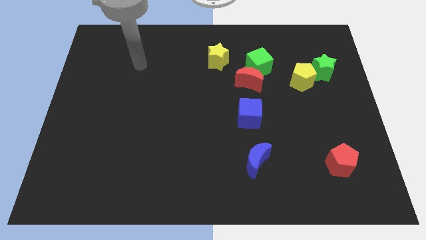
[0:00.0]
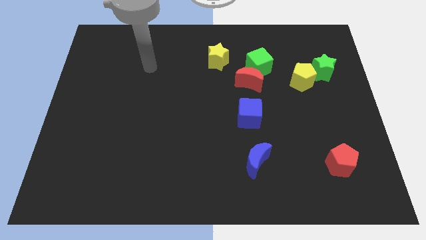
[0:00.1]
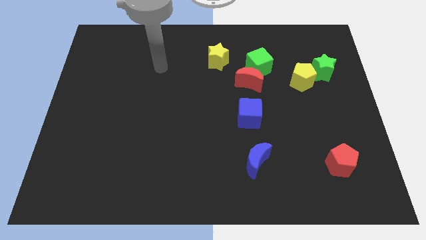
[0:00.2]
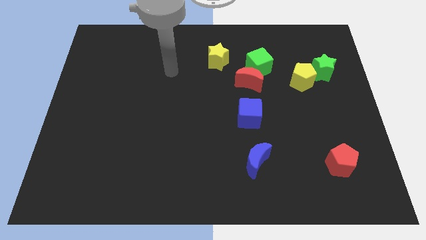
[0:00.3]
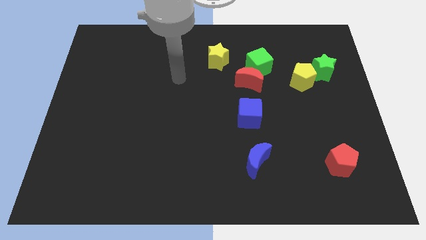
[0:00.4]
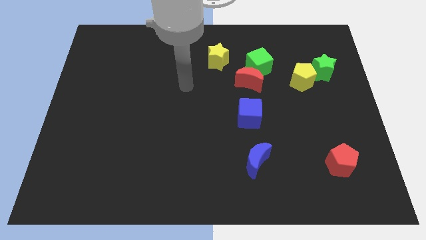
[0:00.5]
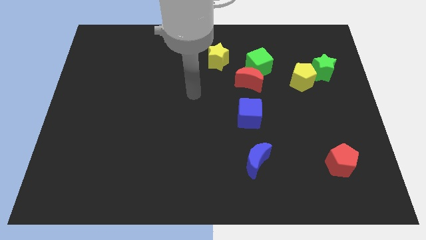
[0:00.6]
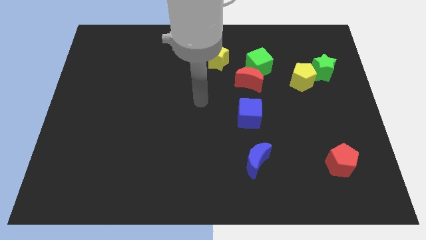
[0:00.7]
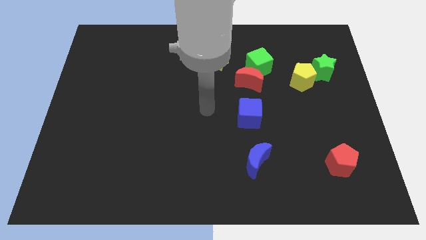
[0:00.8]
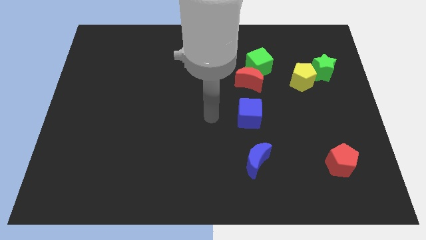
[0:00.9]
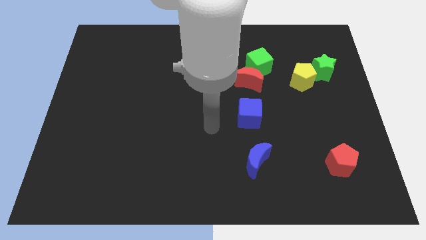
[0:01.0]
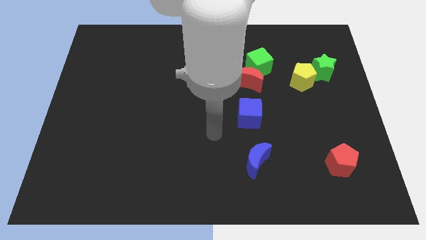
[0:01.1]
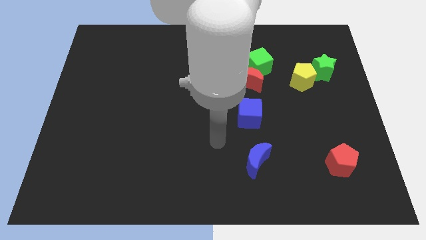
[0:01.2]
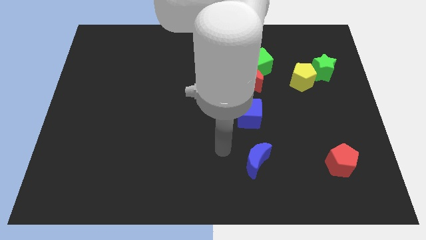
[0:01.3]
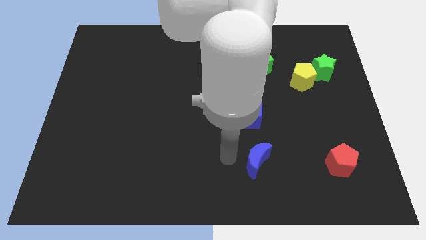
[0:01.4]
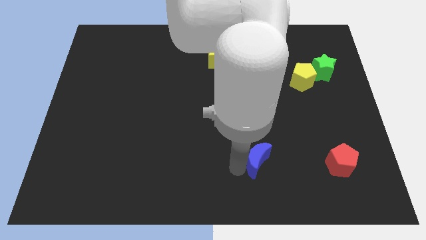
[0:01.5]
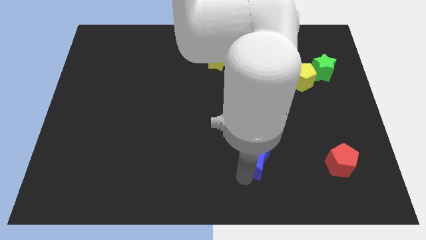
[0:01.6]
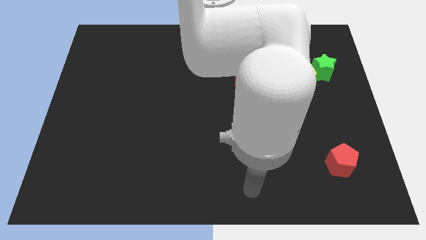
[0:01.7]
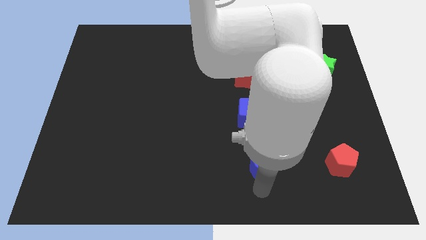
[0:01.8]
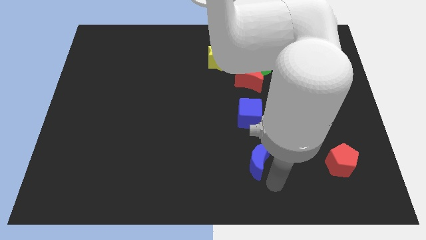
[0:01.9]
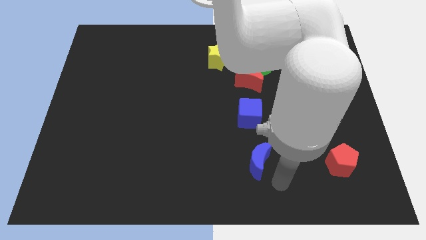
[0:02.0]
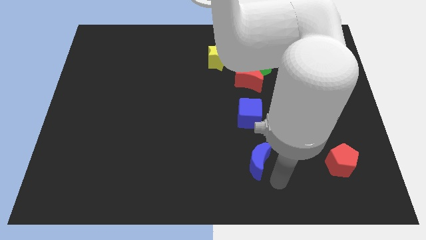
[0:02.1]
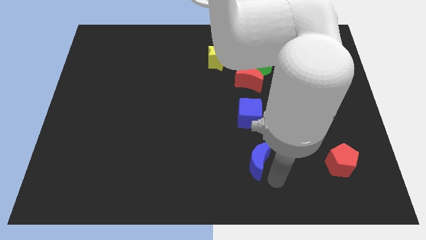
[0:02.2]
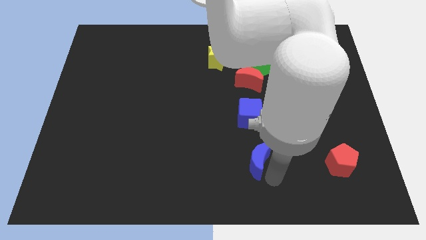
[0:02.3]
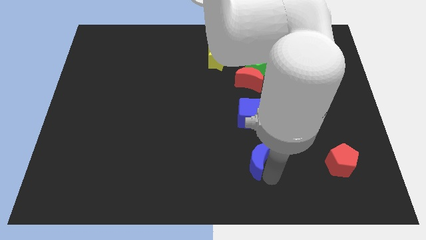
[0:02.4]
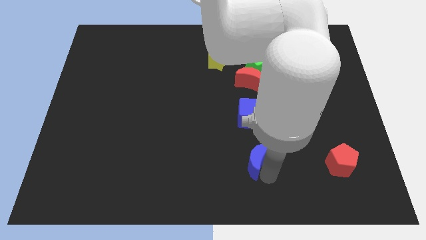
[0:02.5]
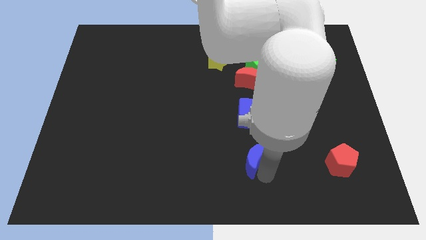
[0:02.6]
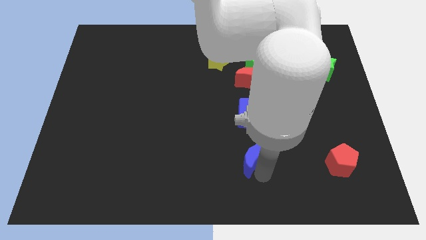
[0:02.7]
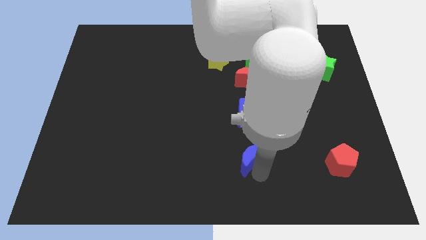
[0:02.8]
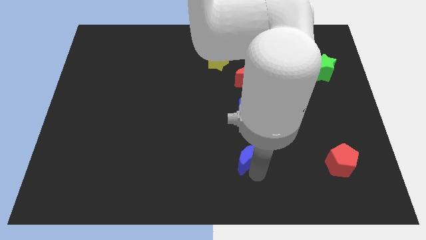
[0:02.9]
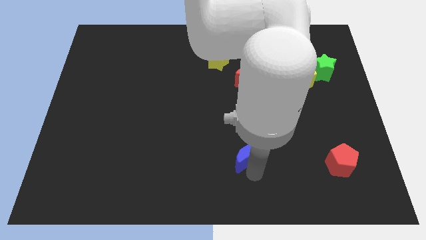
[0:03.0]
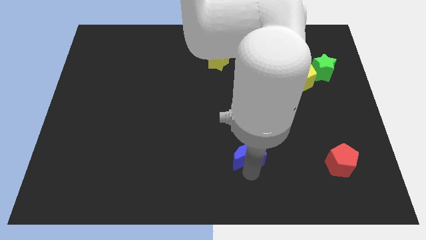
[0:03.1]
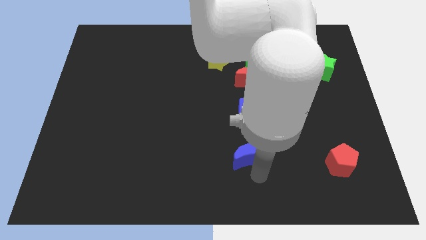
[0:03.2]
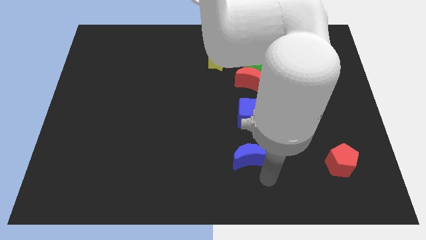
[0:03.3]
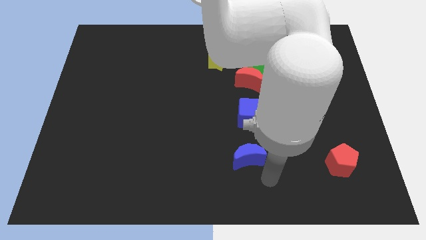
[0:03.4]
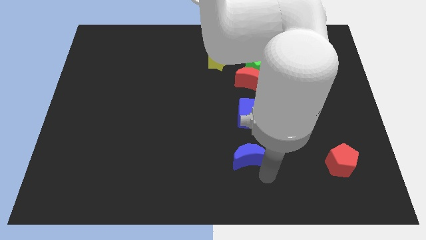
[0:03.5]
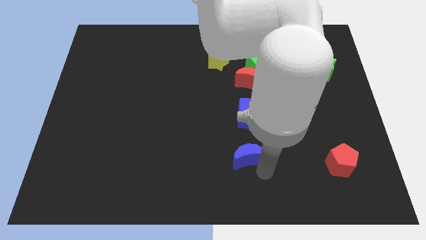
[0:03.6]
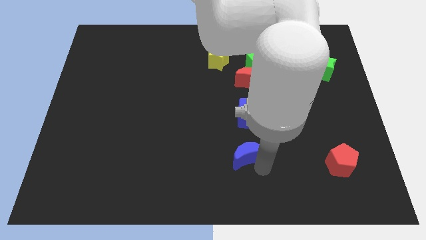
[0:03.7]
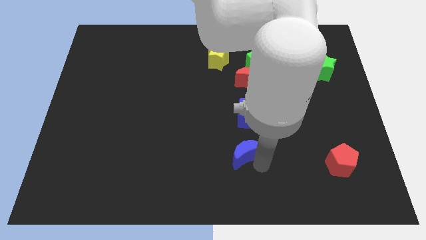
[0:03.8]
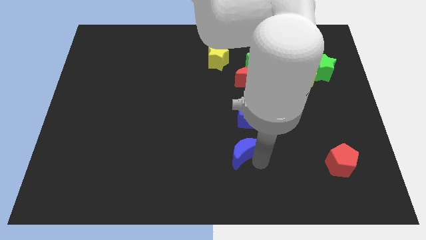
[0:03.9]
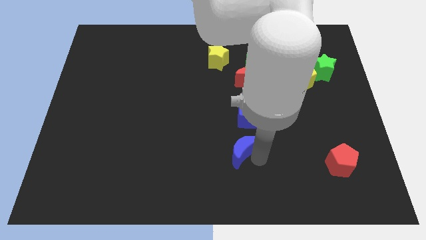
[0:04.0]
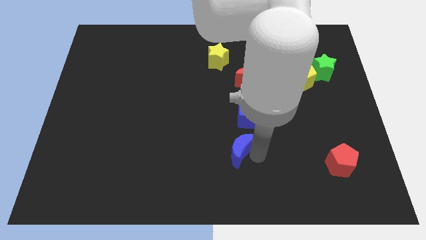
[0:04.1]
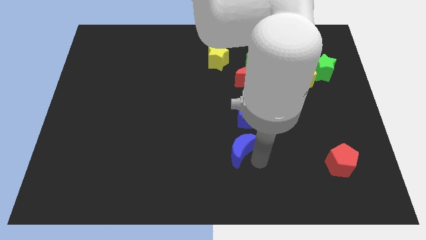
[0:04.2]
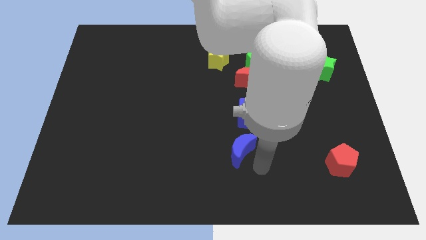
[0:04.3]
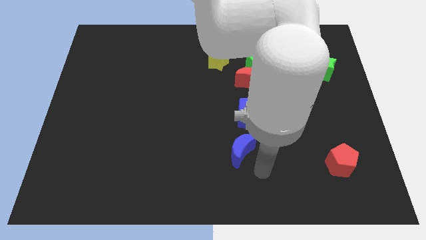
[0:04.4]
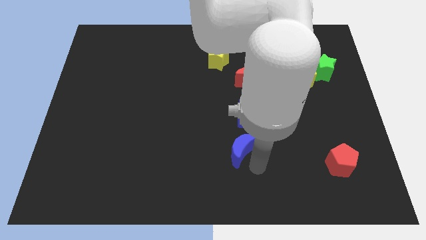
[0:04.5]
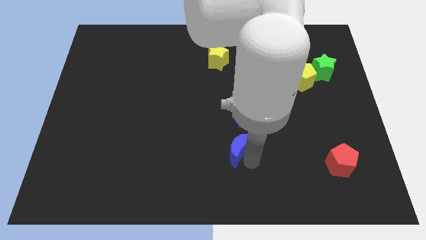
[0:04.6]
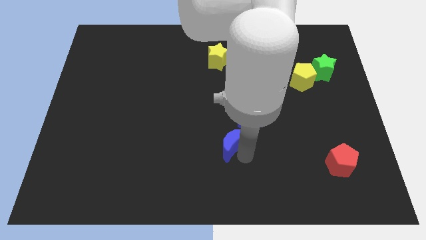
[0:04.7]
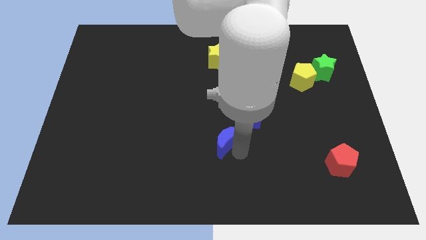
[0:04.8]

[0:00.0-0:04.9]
slide the blue moon a bit upwards and to the left diagonally

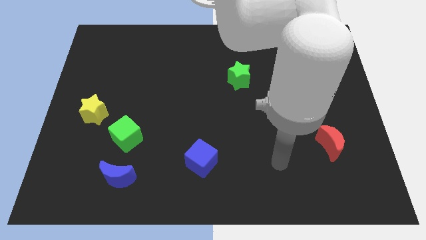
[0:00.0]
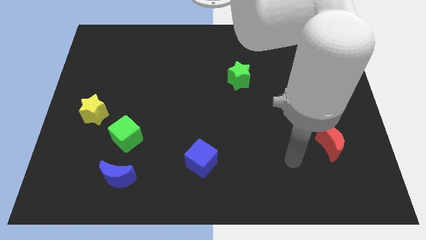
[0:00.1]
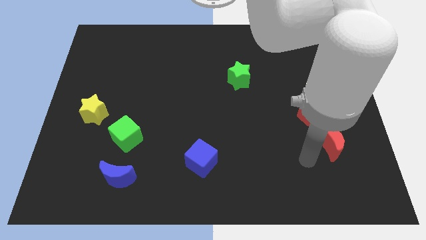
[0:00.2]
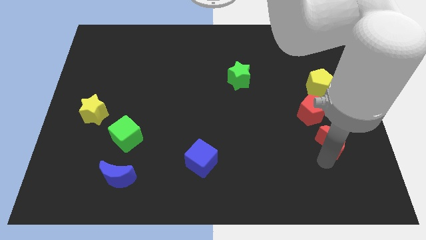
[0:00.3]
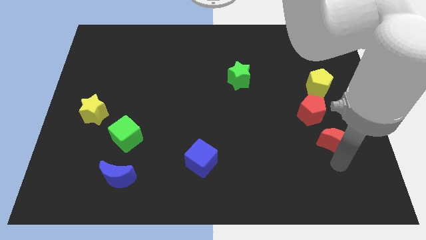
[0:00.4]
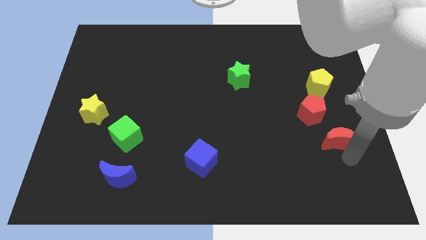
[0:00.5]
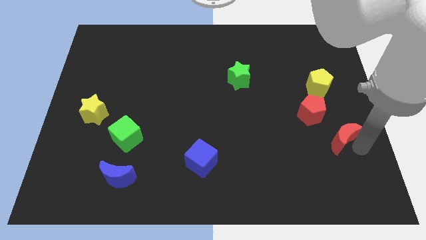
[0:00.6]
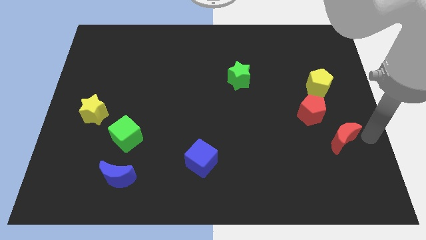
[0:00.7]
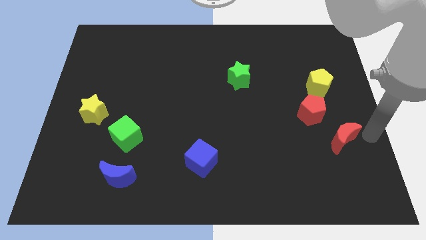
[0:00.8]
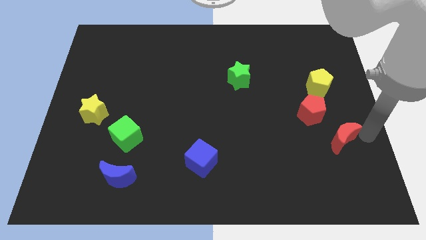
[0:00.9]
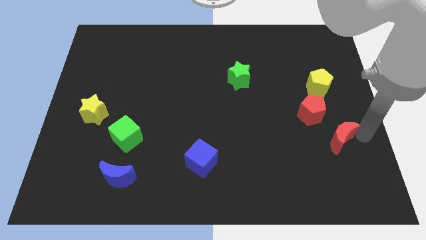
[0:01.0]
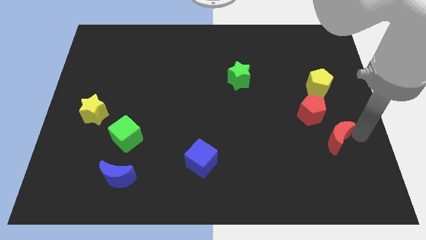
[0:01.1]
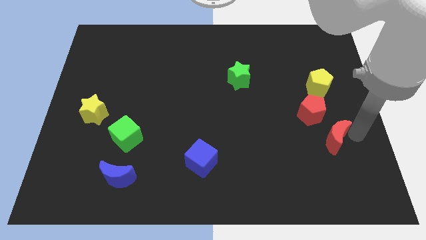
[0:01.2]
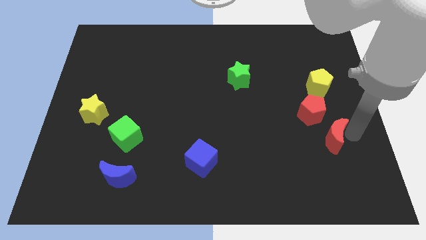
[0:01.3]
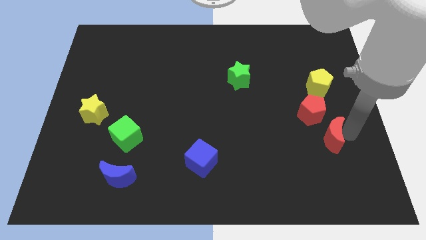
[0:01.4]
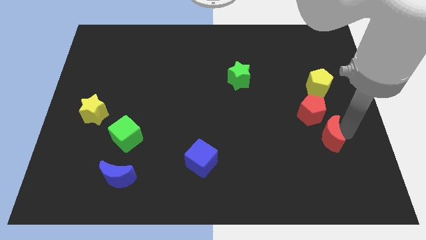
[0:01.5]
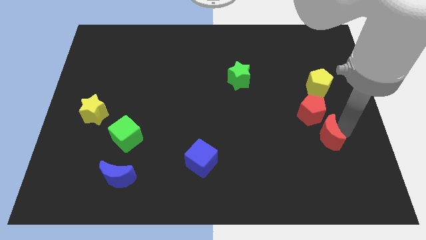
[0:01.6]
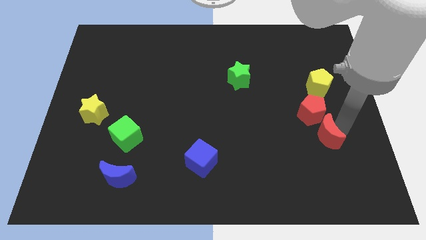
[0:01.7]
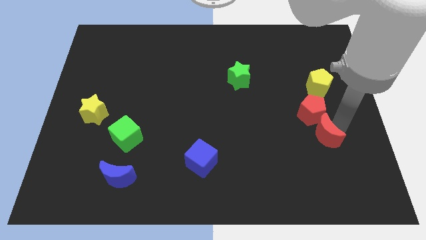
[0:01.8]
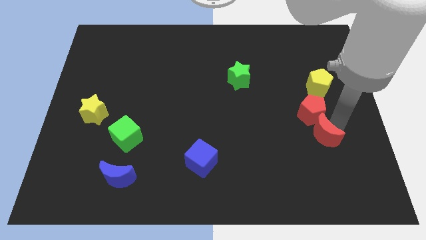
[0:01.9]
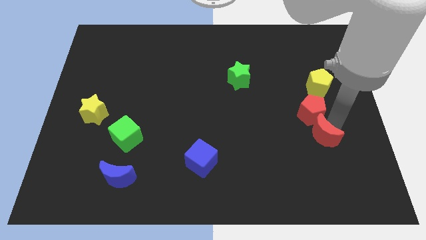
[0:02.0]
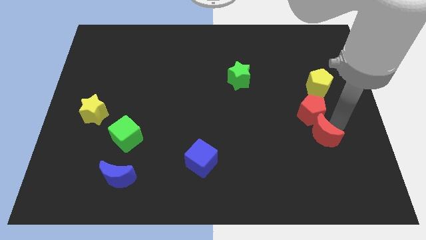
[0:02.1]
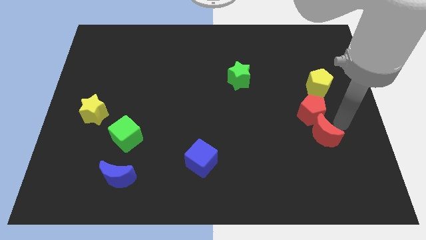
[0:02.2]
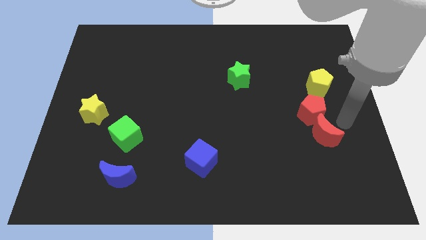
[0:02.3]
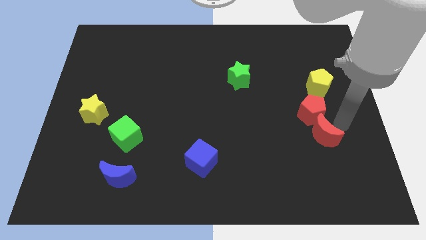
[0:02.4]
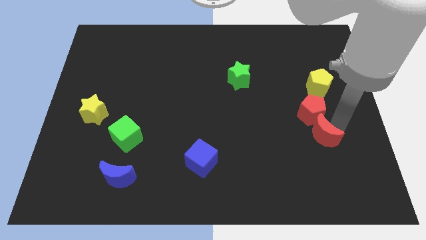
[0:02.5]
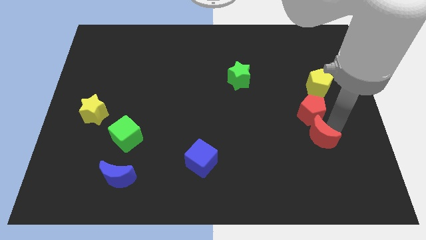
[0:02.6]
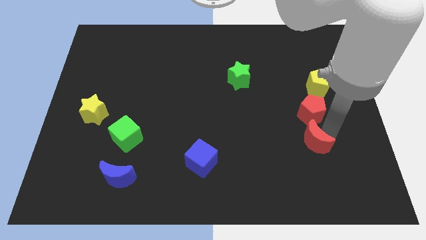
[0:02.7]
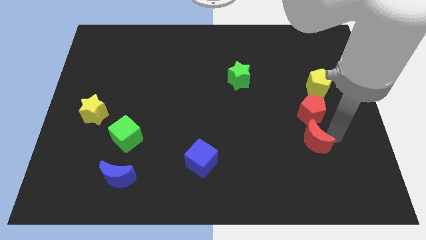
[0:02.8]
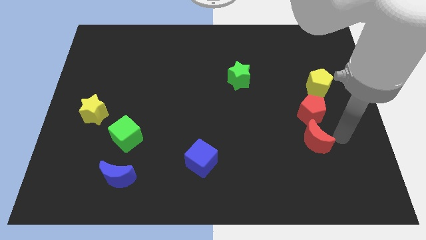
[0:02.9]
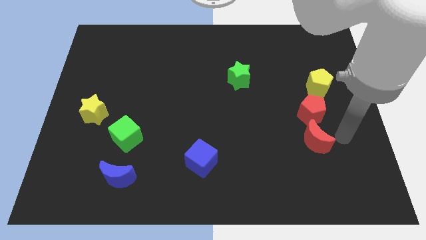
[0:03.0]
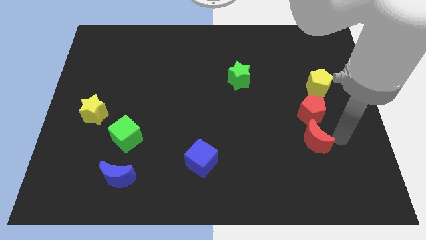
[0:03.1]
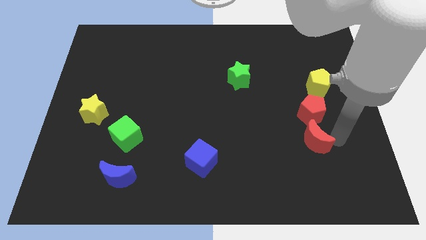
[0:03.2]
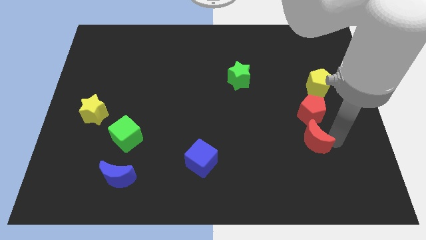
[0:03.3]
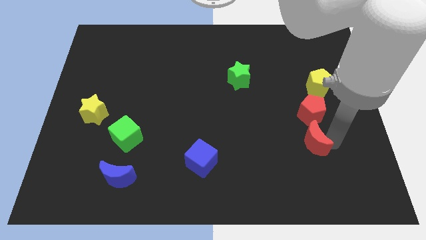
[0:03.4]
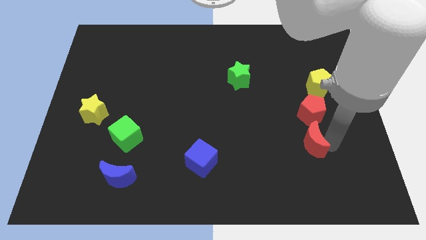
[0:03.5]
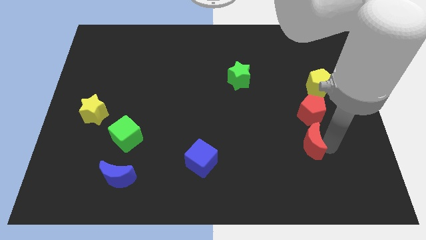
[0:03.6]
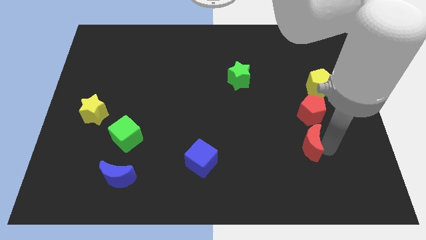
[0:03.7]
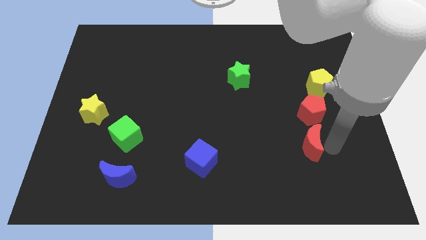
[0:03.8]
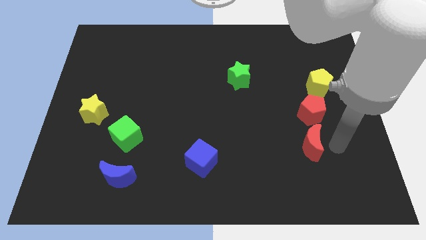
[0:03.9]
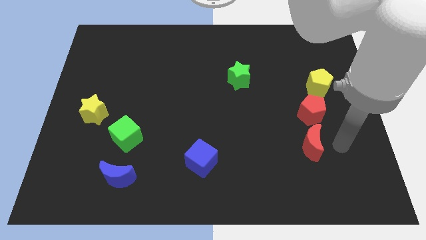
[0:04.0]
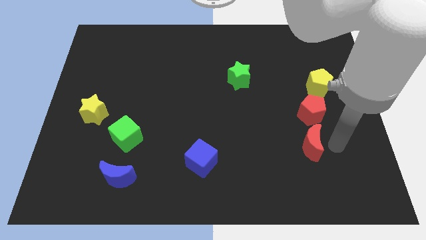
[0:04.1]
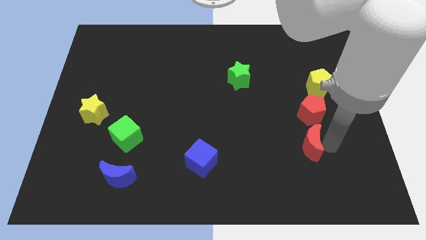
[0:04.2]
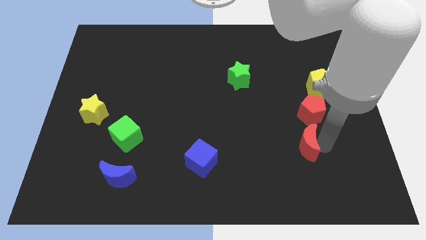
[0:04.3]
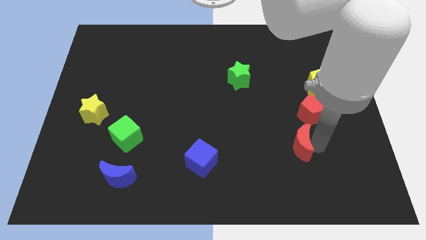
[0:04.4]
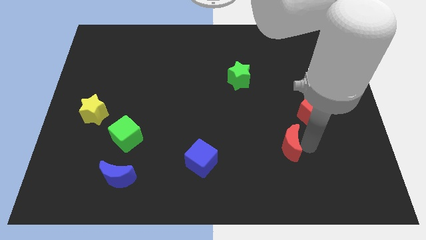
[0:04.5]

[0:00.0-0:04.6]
push the red moon left somewhat
